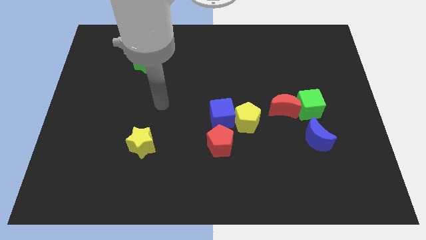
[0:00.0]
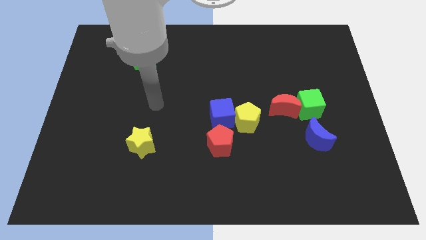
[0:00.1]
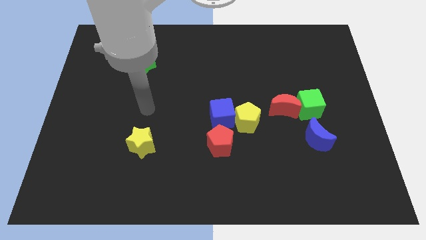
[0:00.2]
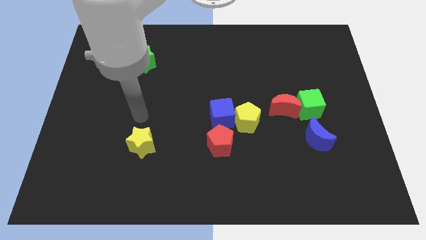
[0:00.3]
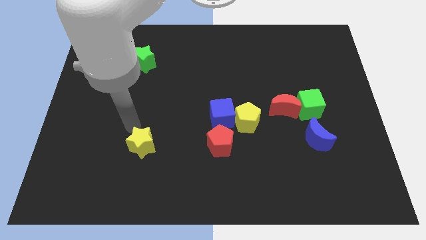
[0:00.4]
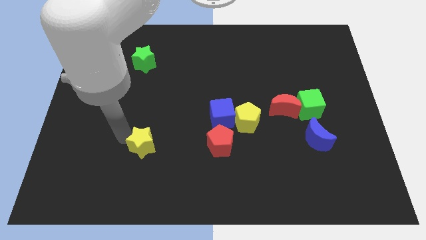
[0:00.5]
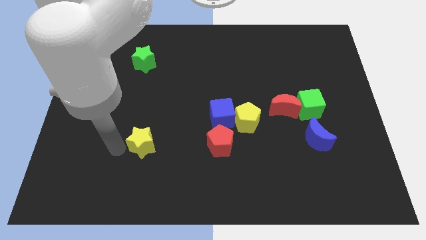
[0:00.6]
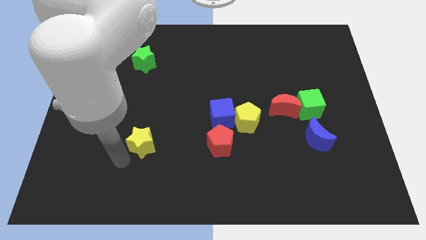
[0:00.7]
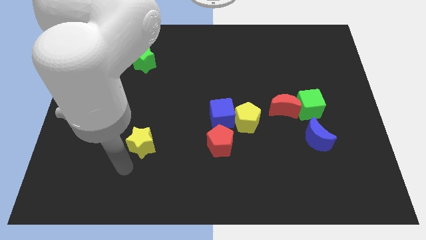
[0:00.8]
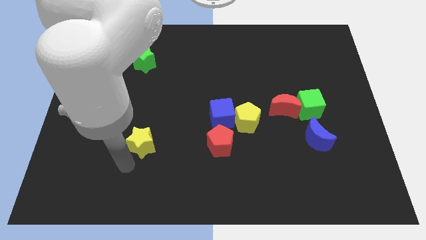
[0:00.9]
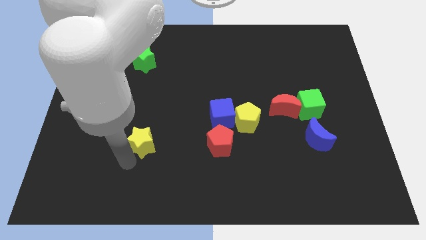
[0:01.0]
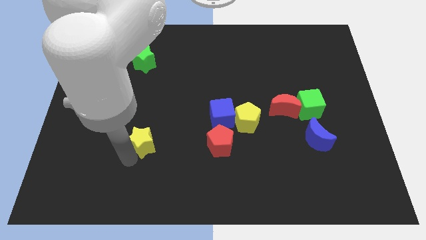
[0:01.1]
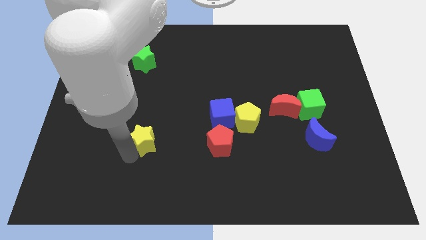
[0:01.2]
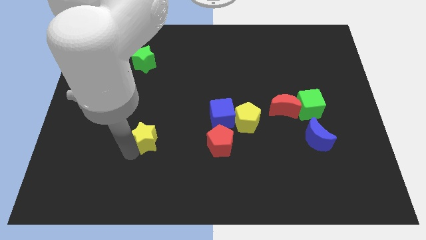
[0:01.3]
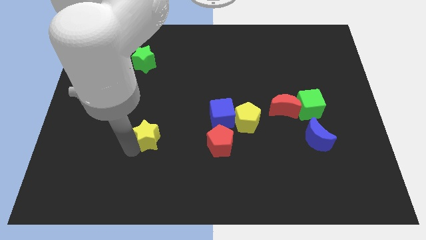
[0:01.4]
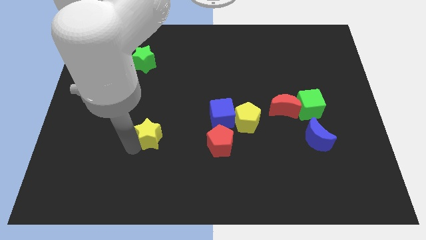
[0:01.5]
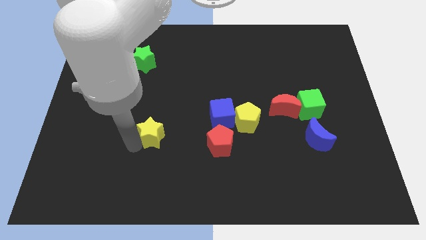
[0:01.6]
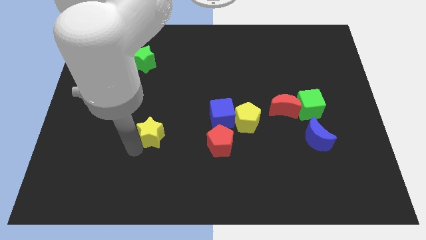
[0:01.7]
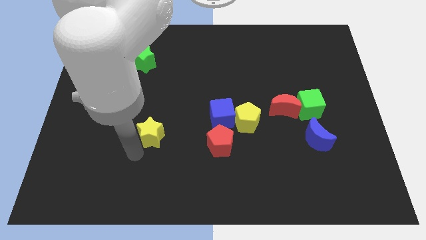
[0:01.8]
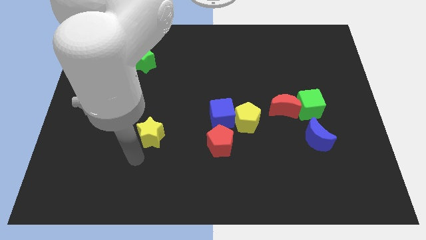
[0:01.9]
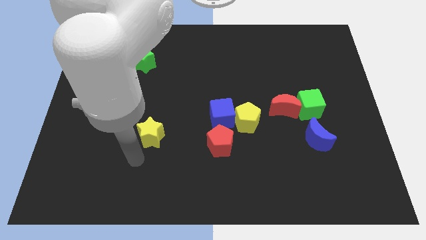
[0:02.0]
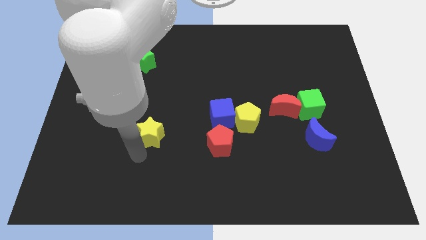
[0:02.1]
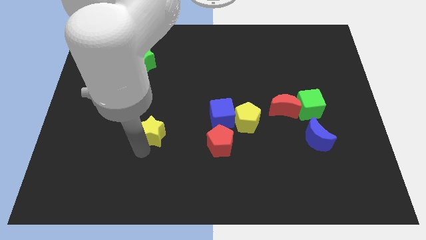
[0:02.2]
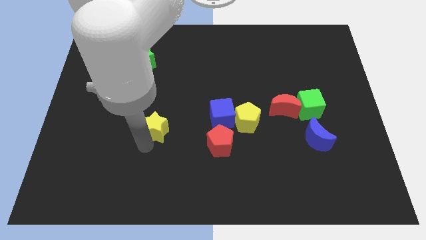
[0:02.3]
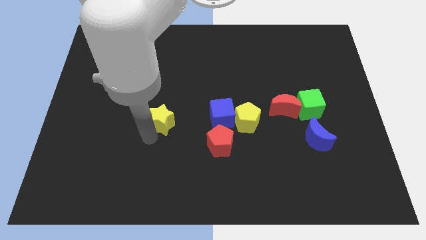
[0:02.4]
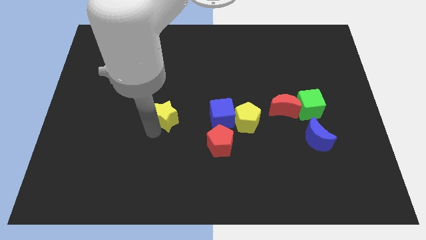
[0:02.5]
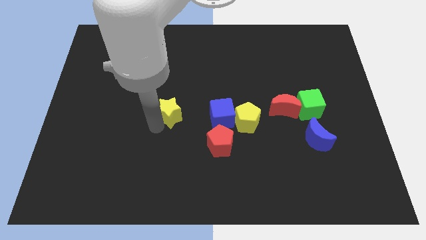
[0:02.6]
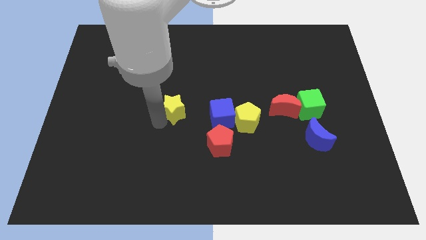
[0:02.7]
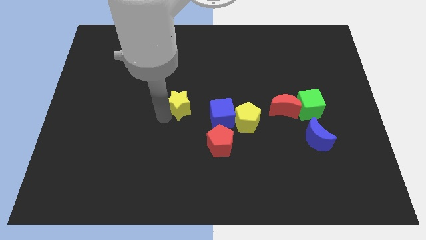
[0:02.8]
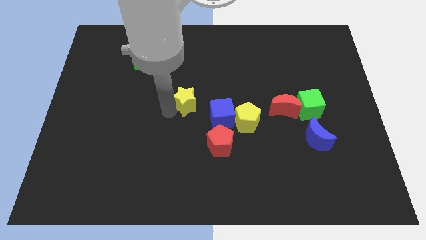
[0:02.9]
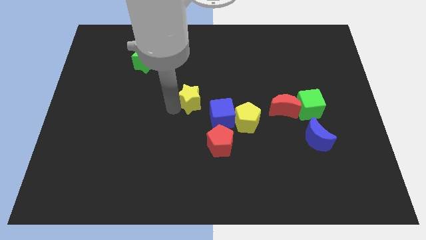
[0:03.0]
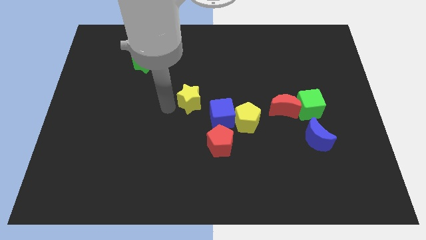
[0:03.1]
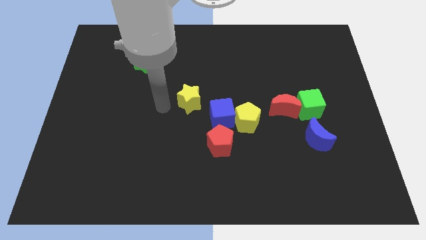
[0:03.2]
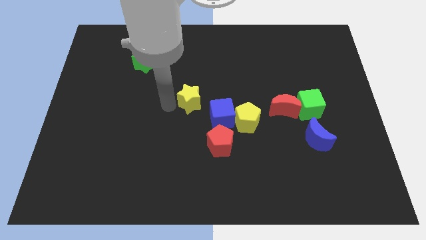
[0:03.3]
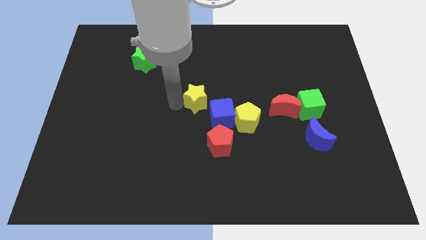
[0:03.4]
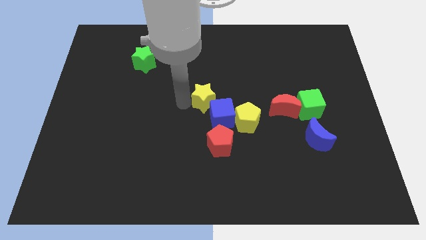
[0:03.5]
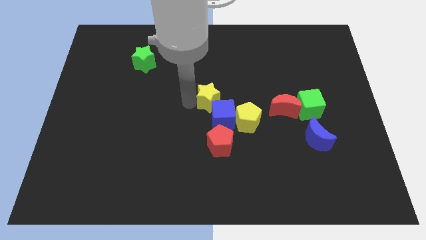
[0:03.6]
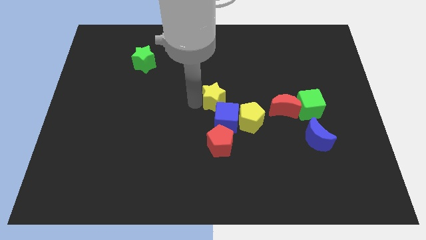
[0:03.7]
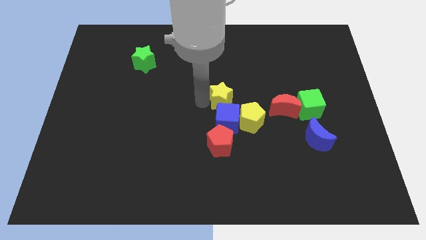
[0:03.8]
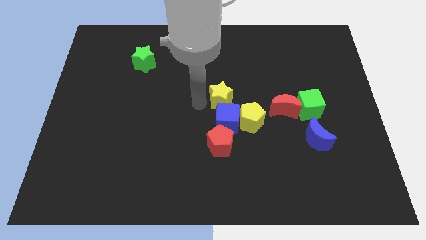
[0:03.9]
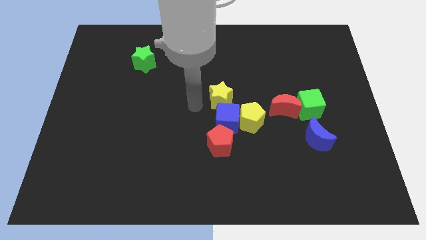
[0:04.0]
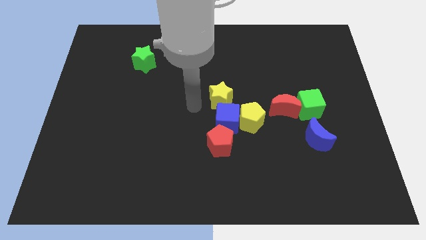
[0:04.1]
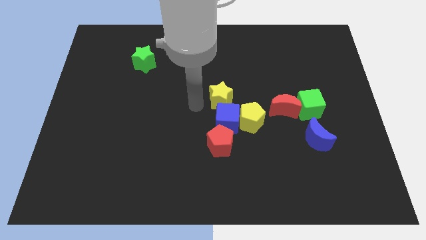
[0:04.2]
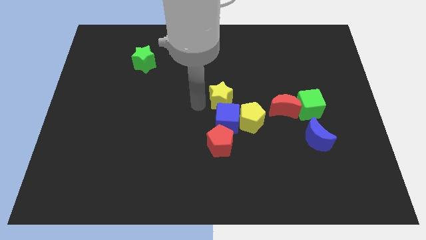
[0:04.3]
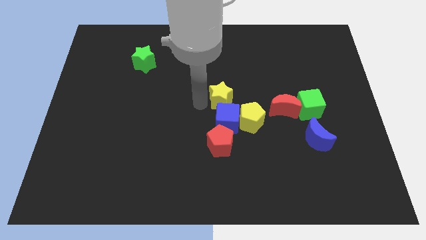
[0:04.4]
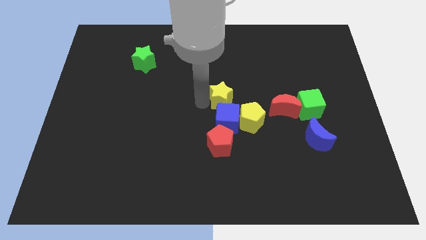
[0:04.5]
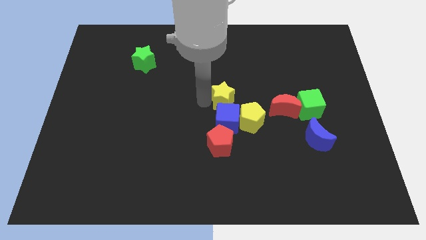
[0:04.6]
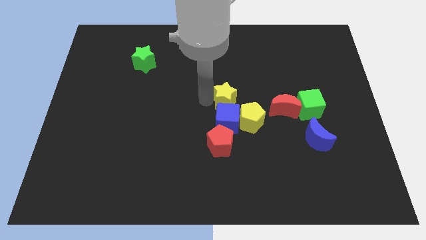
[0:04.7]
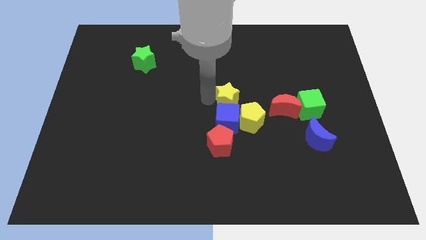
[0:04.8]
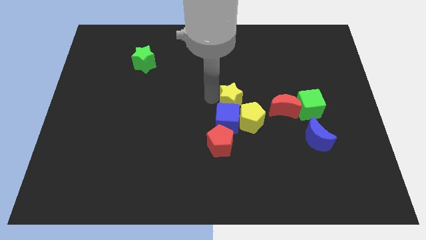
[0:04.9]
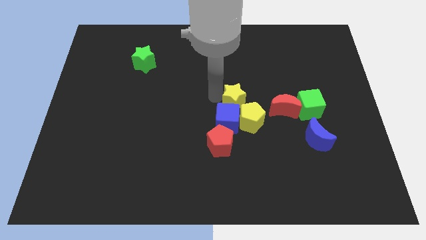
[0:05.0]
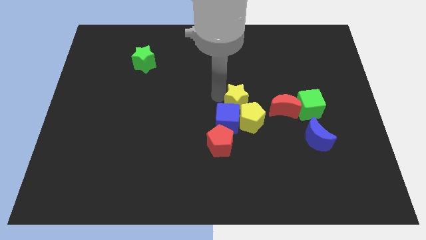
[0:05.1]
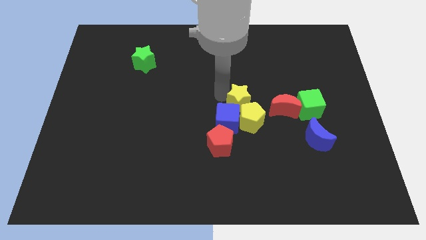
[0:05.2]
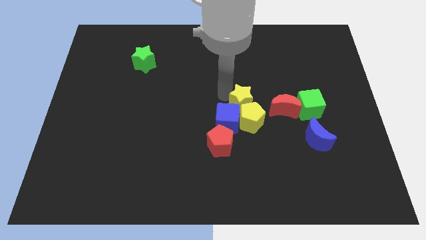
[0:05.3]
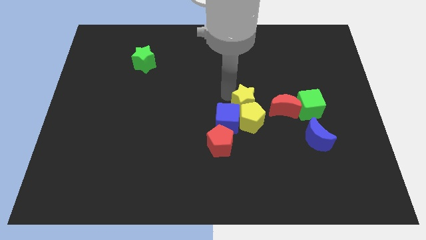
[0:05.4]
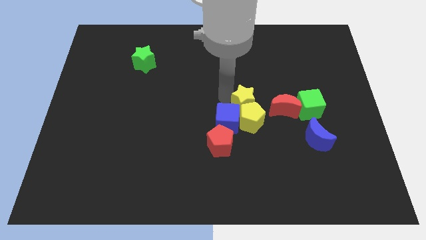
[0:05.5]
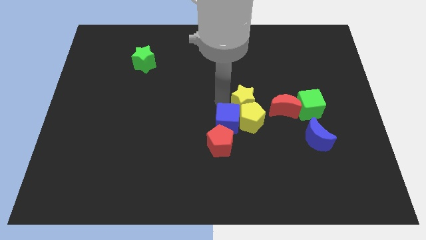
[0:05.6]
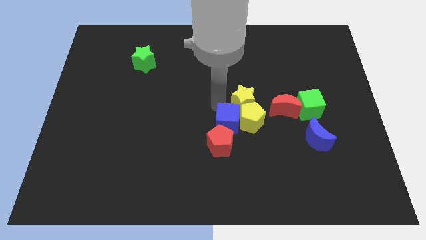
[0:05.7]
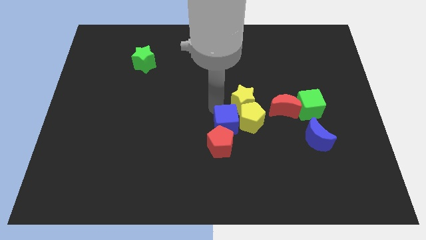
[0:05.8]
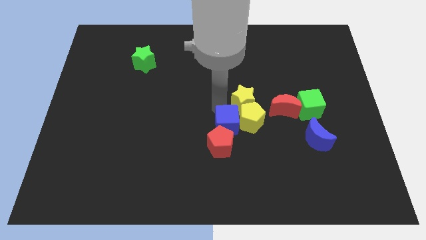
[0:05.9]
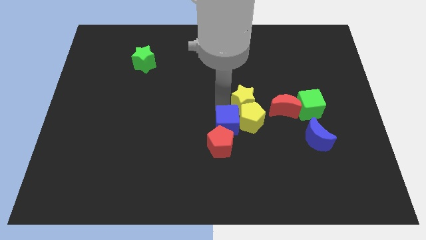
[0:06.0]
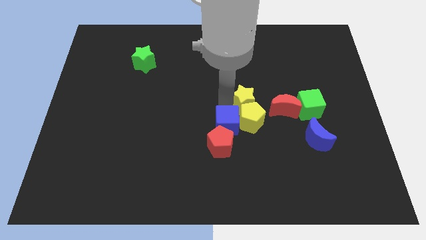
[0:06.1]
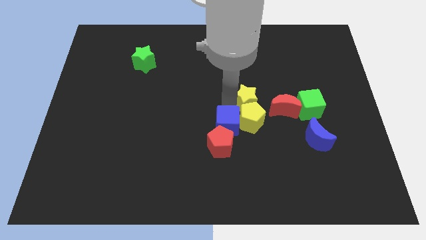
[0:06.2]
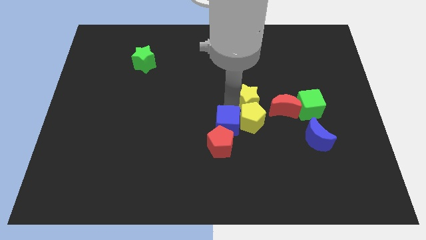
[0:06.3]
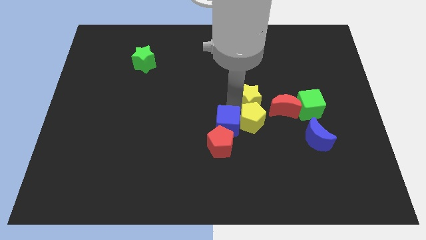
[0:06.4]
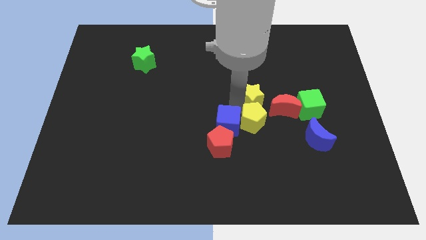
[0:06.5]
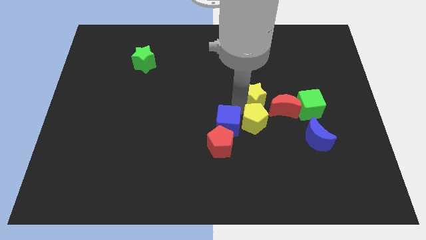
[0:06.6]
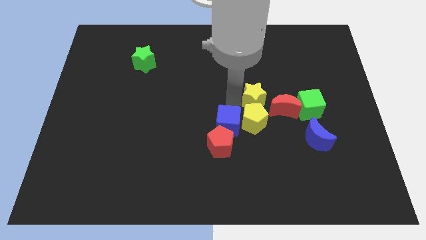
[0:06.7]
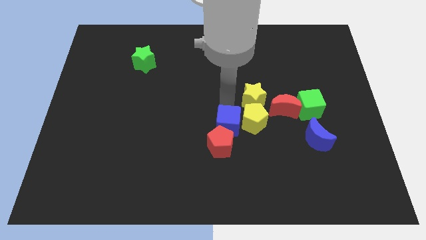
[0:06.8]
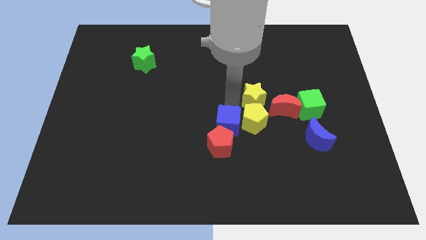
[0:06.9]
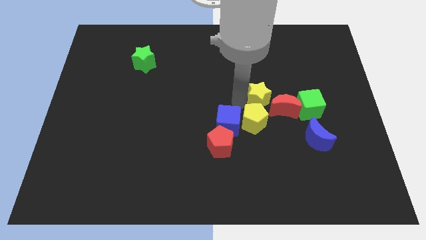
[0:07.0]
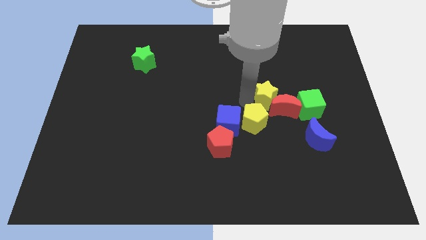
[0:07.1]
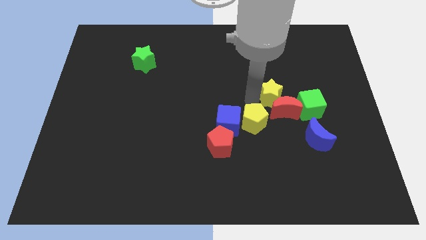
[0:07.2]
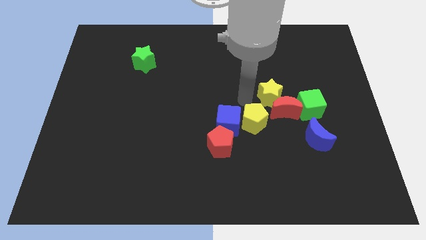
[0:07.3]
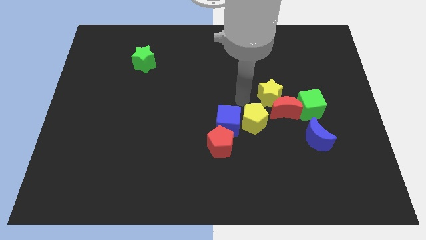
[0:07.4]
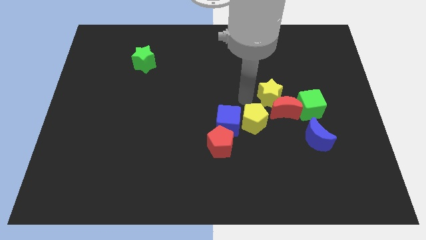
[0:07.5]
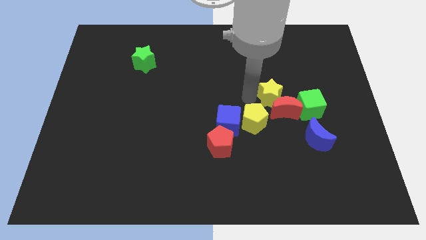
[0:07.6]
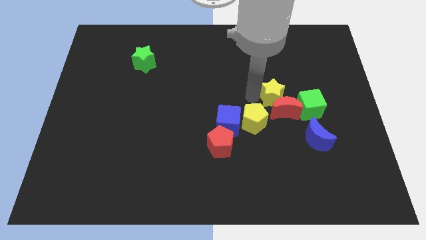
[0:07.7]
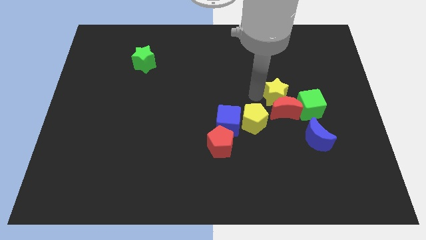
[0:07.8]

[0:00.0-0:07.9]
push the yellow star diagonally up and to the right of the red moon
